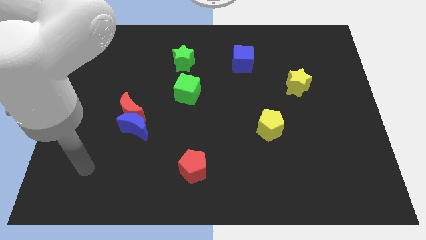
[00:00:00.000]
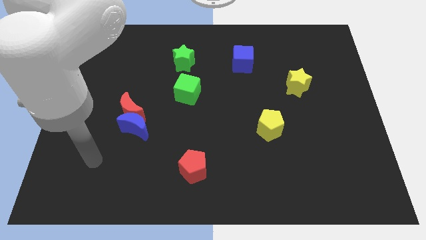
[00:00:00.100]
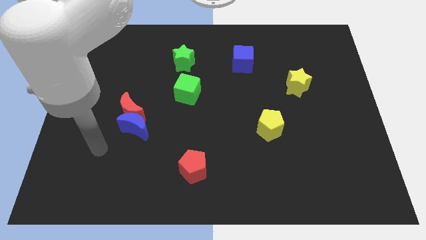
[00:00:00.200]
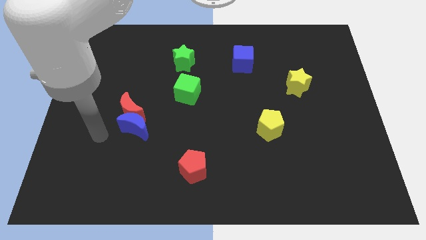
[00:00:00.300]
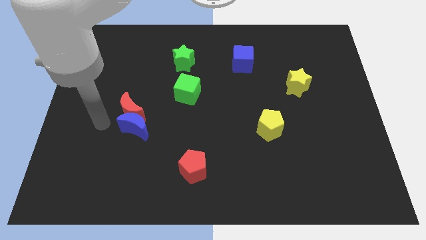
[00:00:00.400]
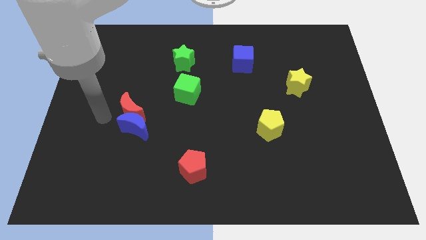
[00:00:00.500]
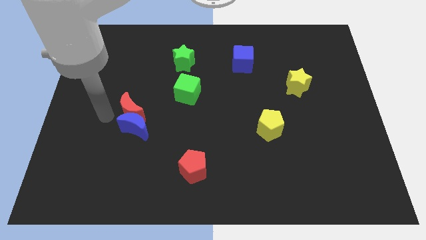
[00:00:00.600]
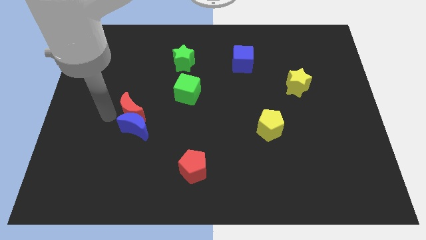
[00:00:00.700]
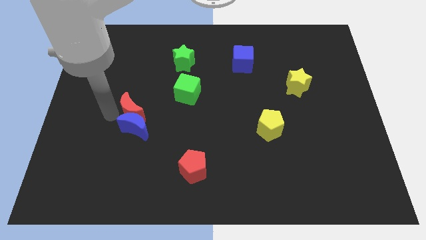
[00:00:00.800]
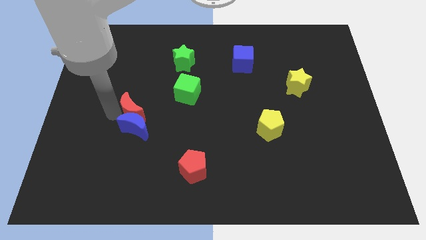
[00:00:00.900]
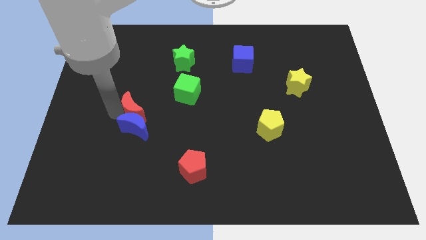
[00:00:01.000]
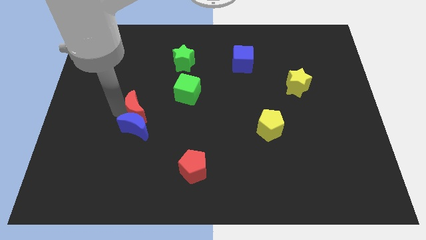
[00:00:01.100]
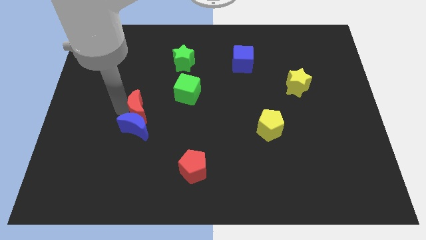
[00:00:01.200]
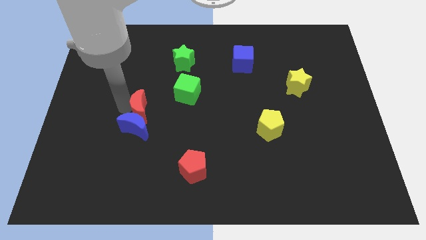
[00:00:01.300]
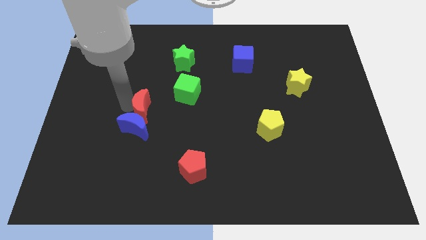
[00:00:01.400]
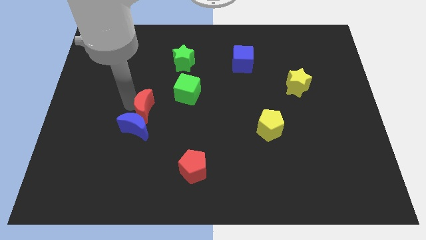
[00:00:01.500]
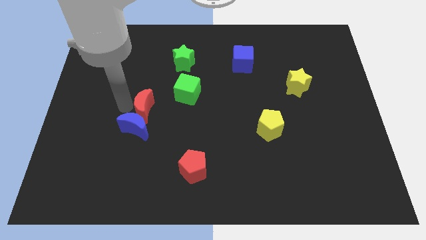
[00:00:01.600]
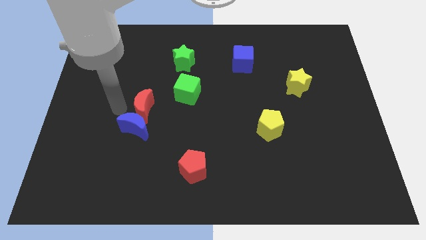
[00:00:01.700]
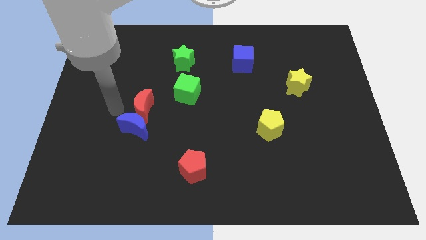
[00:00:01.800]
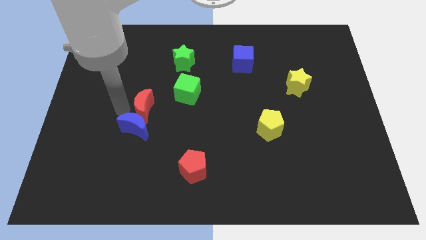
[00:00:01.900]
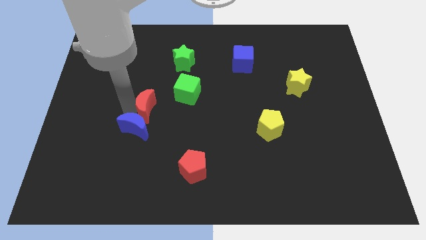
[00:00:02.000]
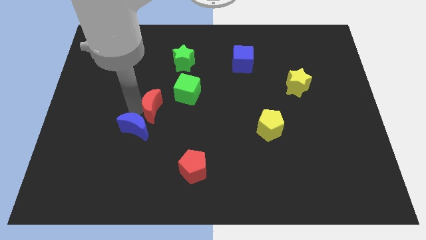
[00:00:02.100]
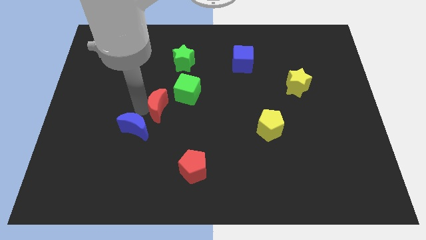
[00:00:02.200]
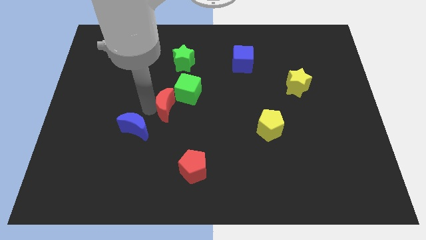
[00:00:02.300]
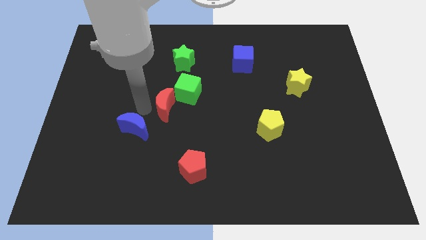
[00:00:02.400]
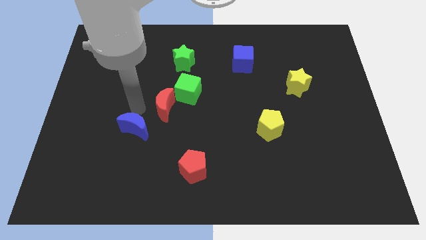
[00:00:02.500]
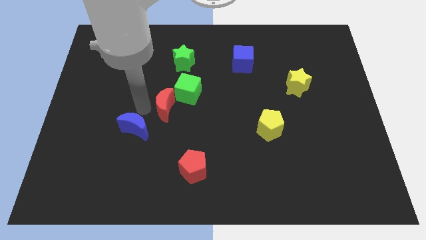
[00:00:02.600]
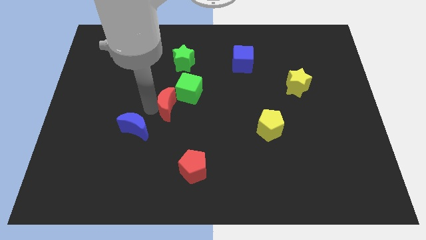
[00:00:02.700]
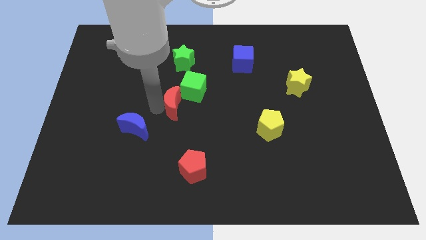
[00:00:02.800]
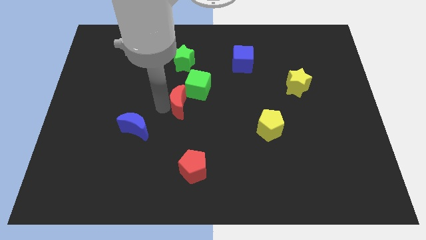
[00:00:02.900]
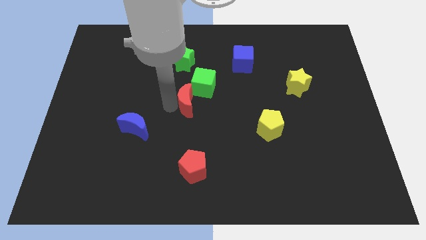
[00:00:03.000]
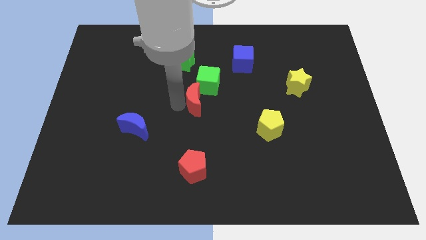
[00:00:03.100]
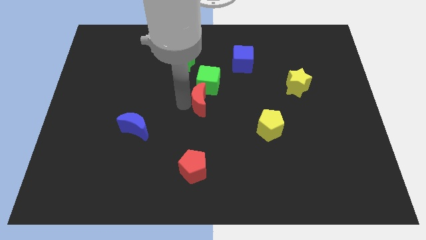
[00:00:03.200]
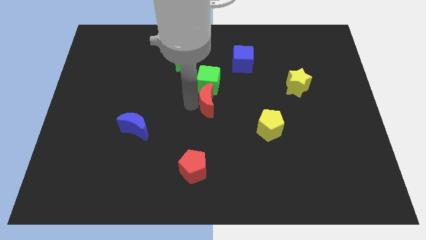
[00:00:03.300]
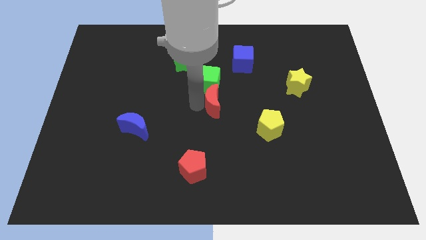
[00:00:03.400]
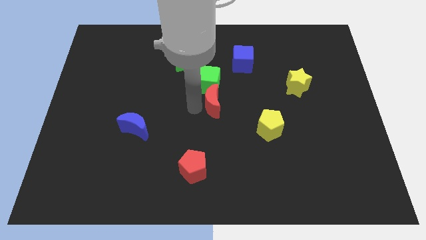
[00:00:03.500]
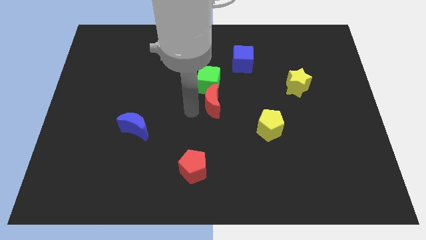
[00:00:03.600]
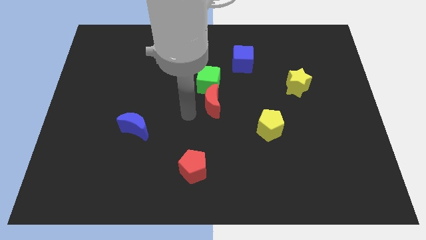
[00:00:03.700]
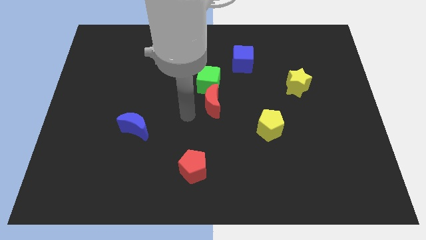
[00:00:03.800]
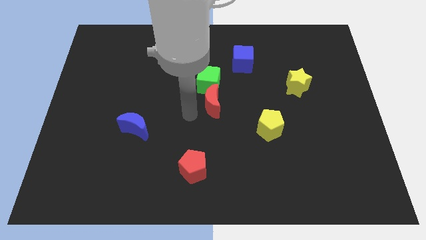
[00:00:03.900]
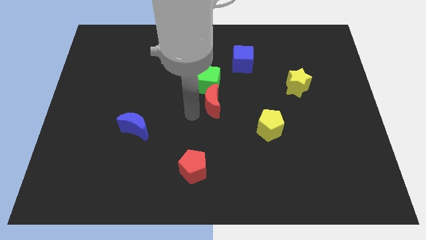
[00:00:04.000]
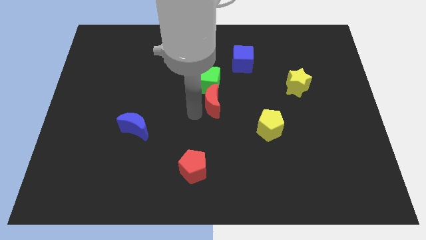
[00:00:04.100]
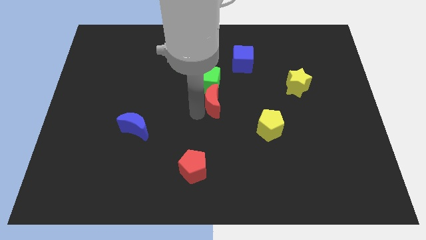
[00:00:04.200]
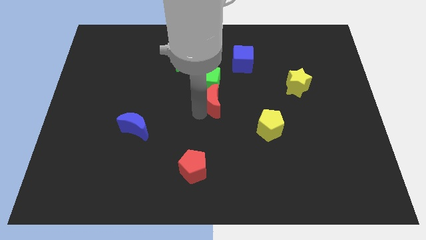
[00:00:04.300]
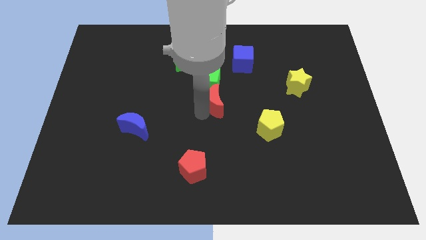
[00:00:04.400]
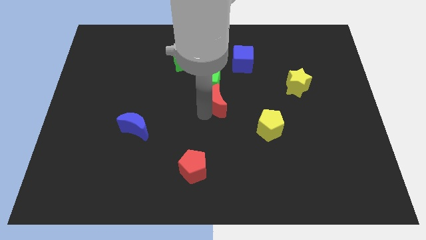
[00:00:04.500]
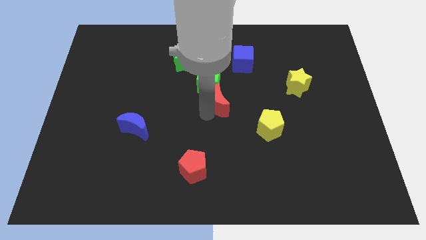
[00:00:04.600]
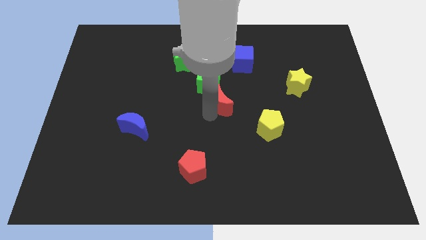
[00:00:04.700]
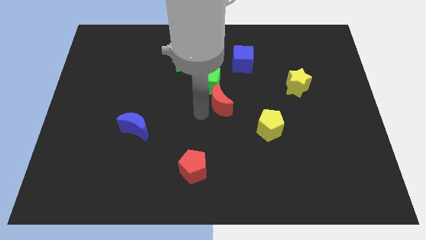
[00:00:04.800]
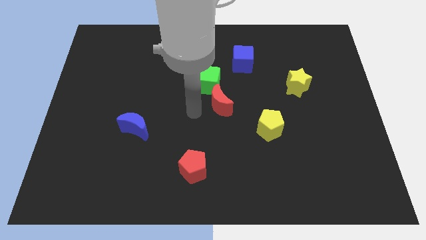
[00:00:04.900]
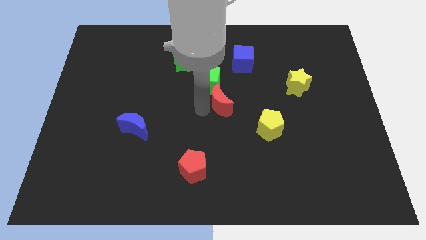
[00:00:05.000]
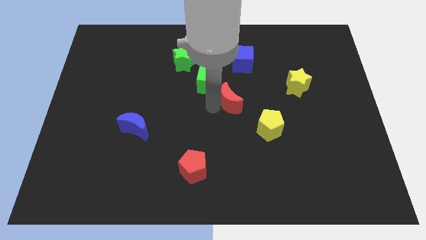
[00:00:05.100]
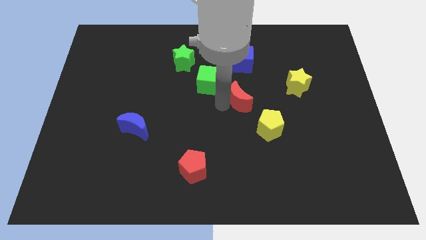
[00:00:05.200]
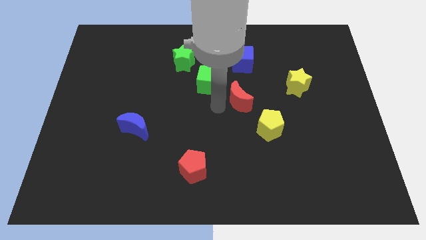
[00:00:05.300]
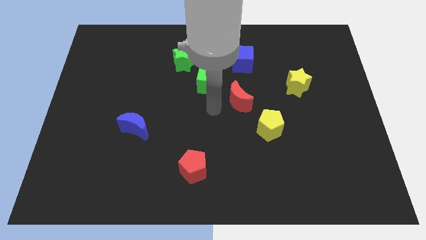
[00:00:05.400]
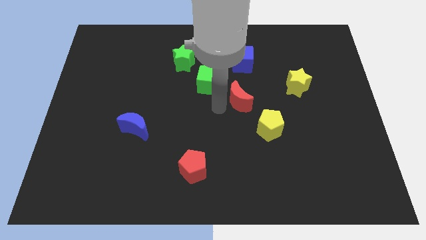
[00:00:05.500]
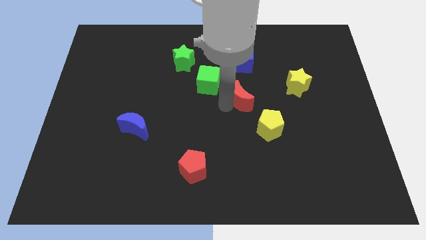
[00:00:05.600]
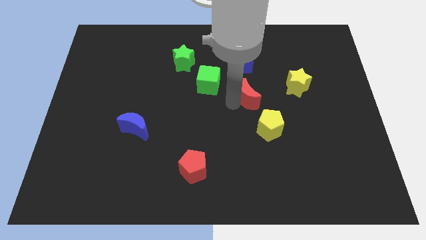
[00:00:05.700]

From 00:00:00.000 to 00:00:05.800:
push the red moon to the top side of the yellow pentagon

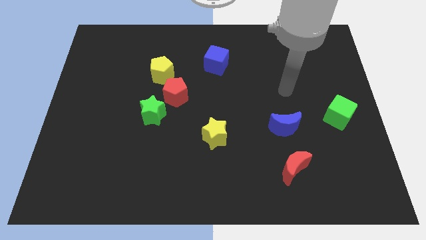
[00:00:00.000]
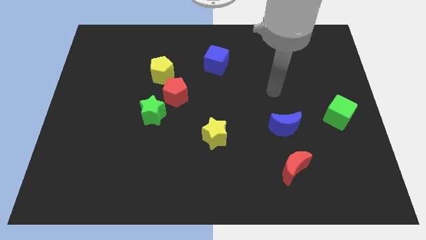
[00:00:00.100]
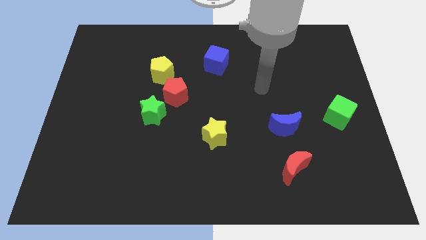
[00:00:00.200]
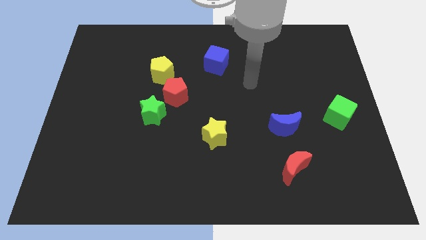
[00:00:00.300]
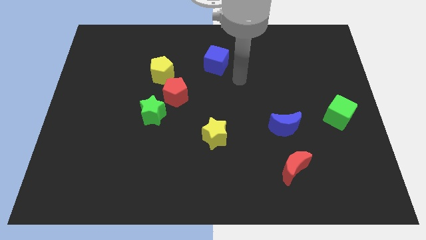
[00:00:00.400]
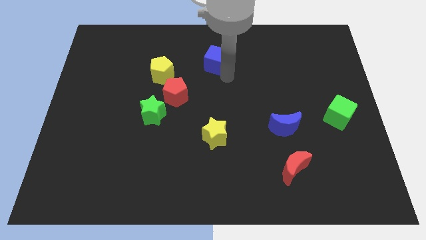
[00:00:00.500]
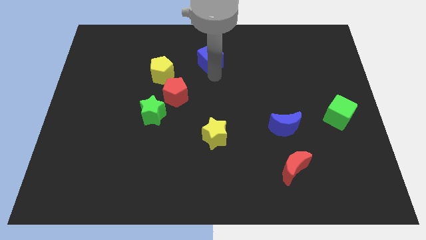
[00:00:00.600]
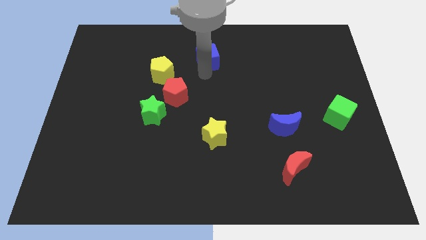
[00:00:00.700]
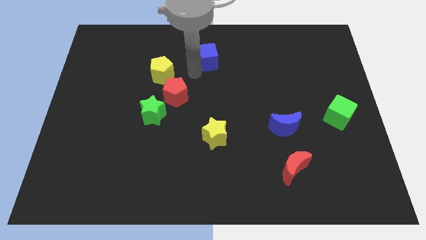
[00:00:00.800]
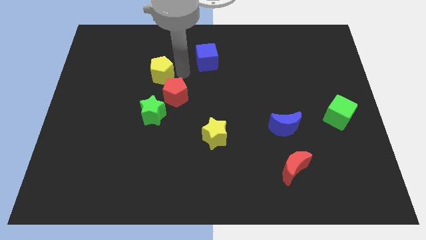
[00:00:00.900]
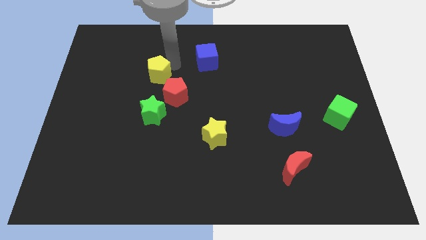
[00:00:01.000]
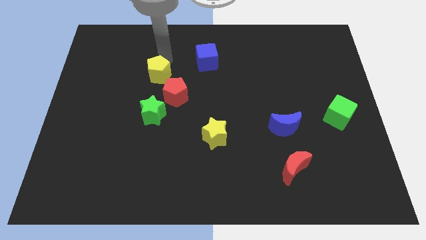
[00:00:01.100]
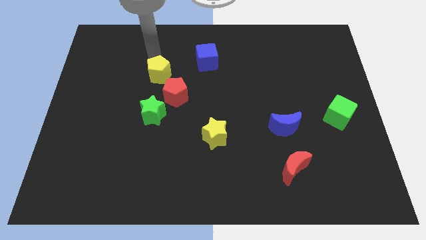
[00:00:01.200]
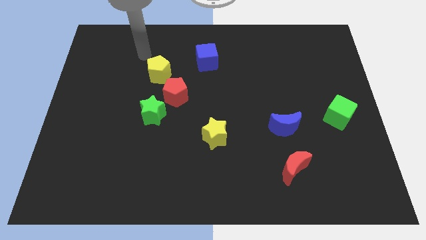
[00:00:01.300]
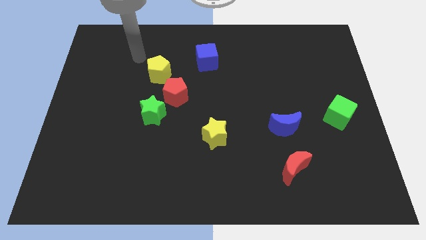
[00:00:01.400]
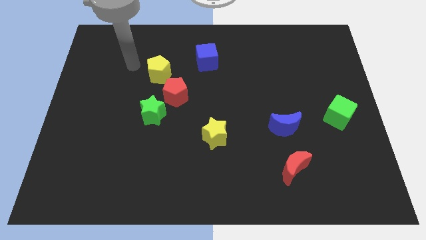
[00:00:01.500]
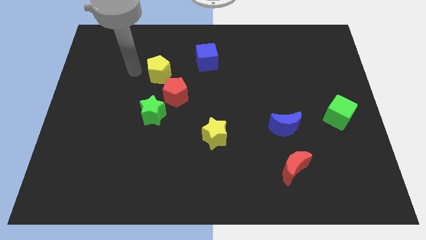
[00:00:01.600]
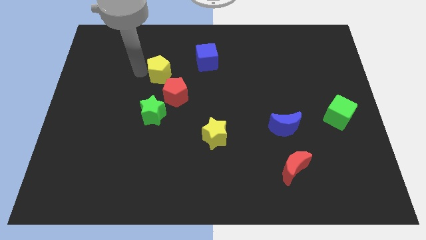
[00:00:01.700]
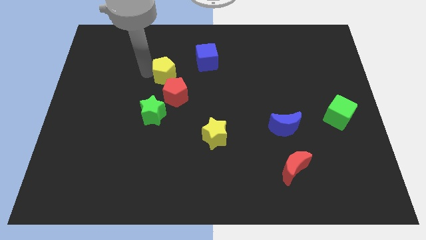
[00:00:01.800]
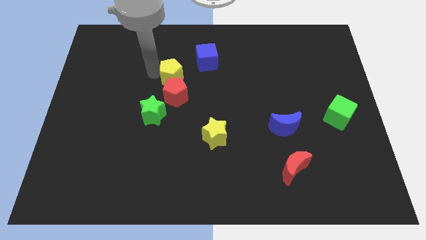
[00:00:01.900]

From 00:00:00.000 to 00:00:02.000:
push the yellow pentagon to the bottom left side of the blue cube
